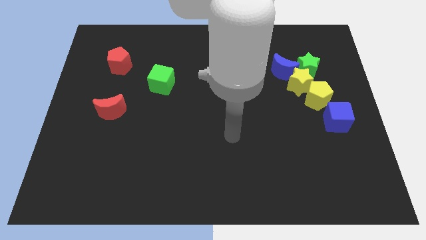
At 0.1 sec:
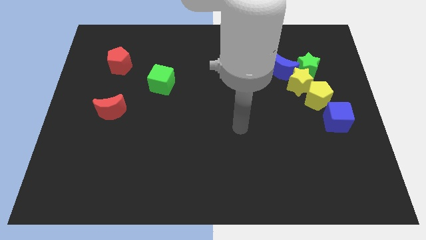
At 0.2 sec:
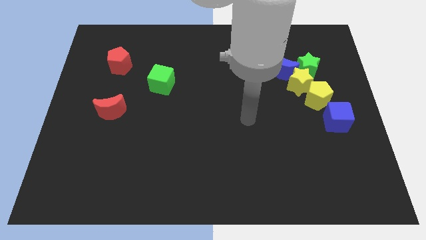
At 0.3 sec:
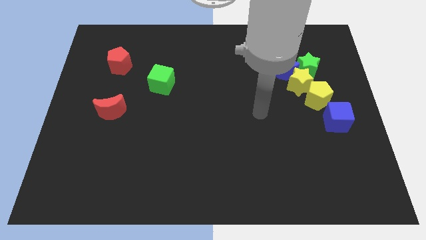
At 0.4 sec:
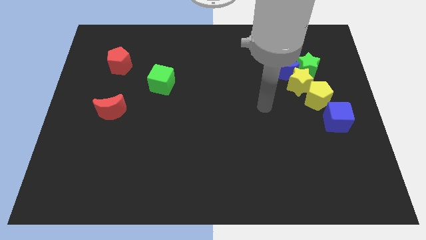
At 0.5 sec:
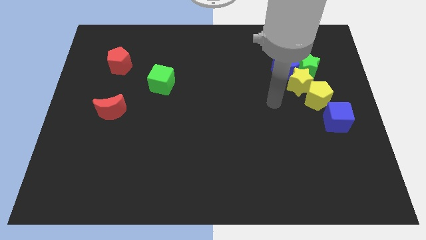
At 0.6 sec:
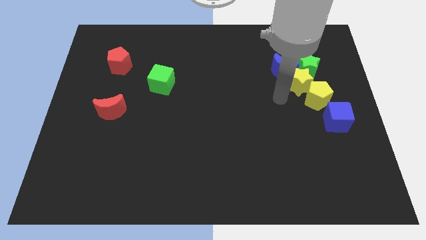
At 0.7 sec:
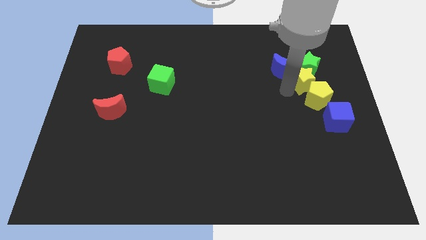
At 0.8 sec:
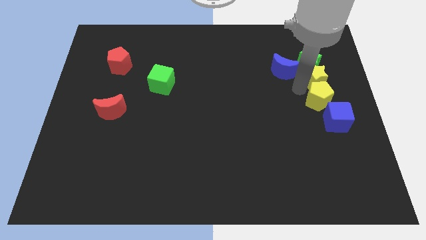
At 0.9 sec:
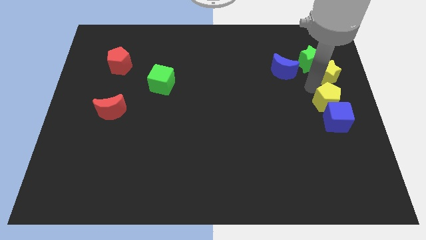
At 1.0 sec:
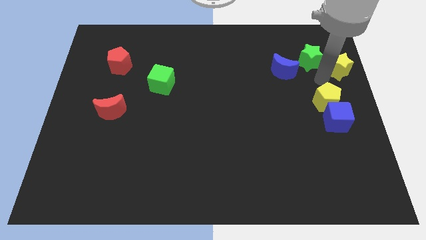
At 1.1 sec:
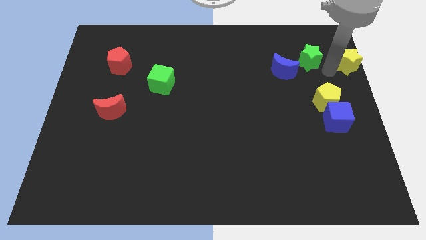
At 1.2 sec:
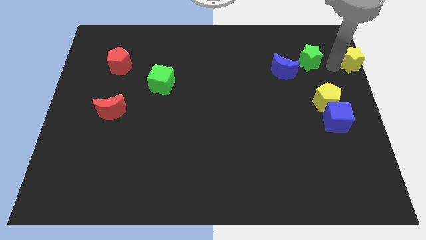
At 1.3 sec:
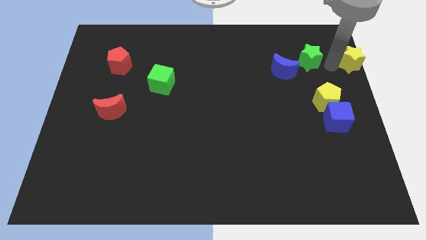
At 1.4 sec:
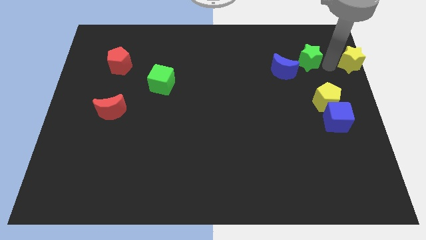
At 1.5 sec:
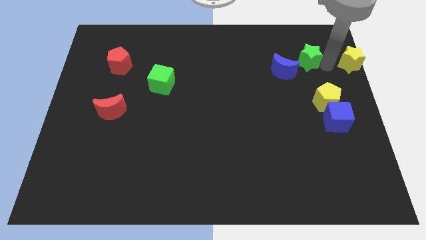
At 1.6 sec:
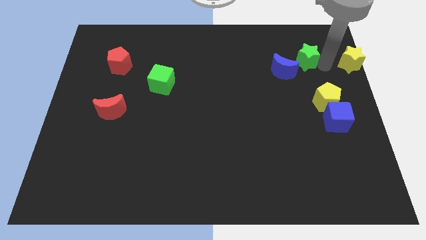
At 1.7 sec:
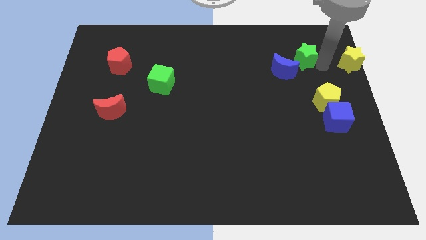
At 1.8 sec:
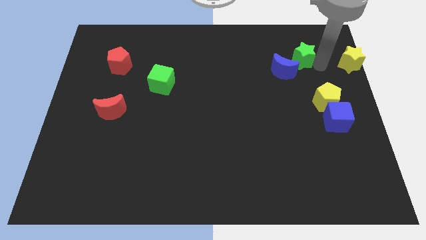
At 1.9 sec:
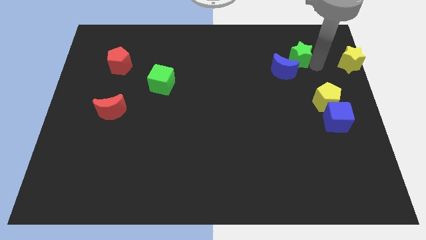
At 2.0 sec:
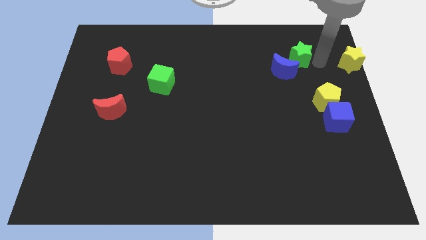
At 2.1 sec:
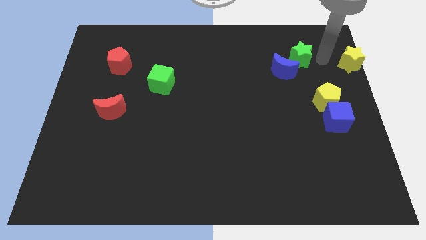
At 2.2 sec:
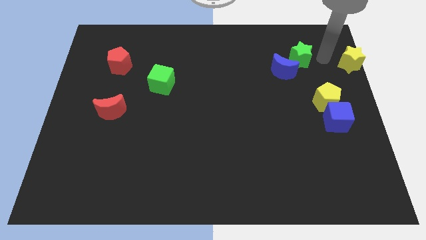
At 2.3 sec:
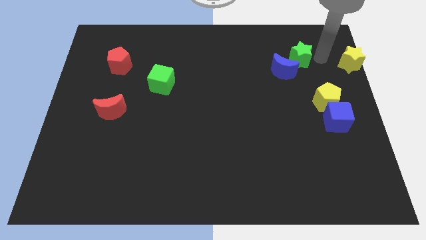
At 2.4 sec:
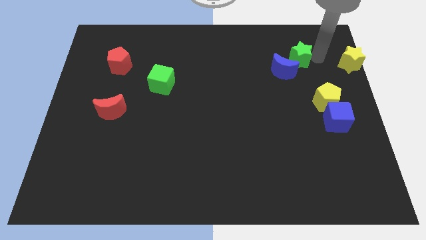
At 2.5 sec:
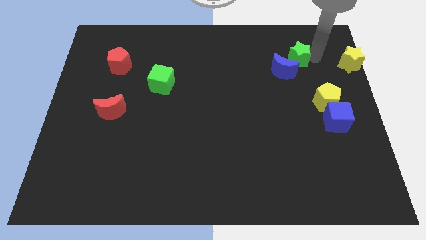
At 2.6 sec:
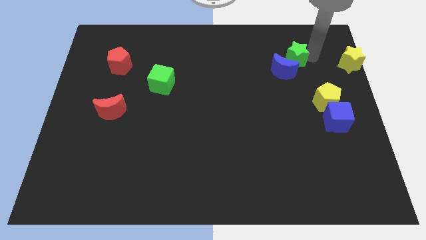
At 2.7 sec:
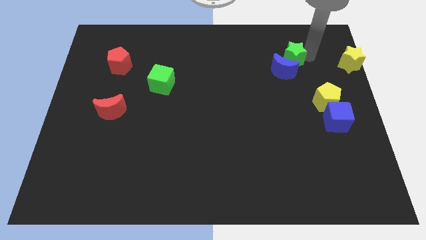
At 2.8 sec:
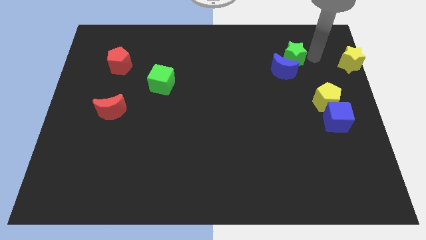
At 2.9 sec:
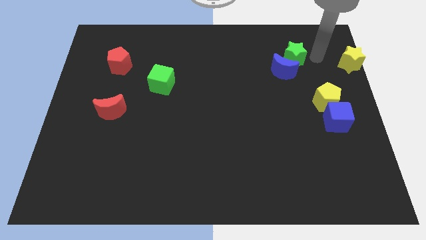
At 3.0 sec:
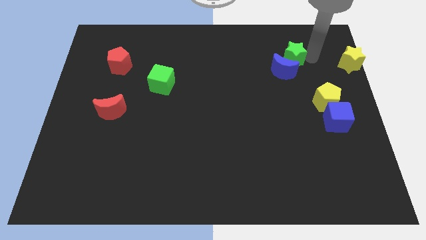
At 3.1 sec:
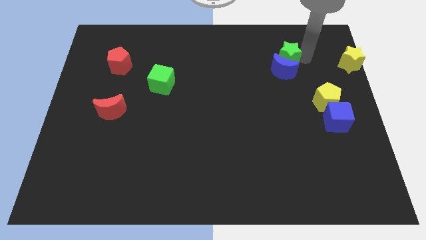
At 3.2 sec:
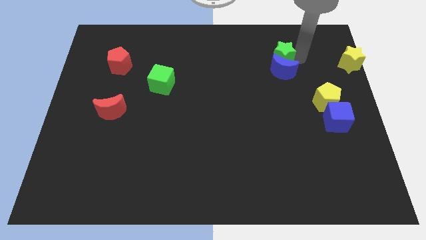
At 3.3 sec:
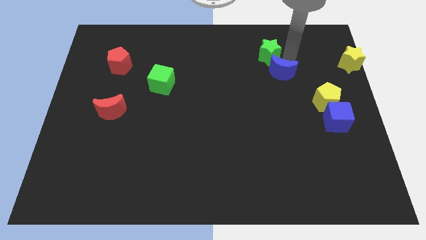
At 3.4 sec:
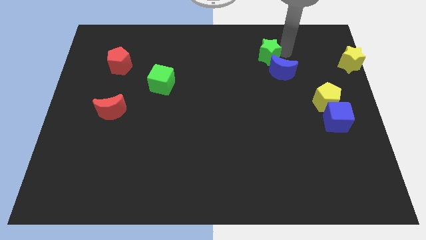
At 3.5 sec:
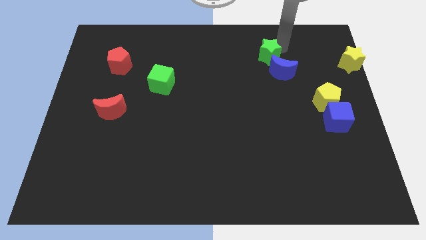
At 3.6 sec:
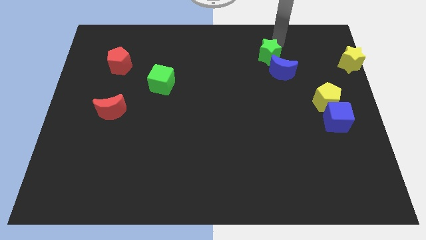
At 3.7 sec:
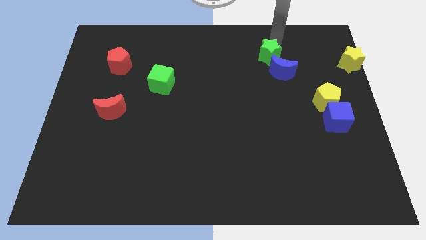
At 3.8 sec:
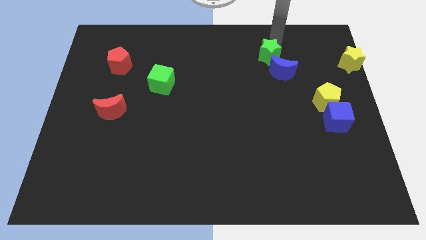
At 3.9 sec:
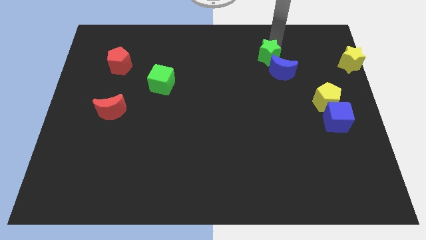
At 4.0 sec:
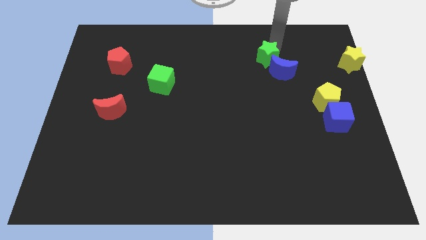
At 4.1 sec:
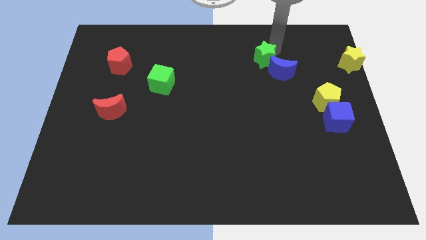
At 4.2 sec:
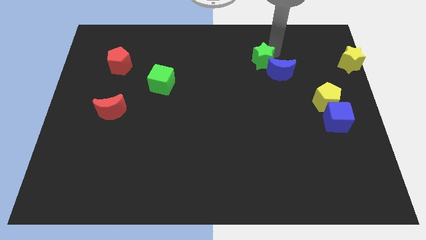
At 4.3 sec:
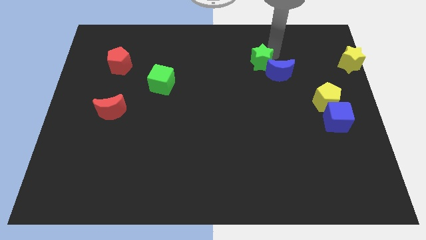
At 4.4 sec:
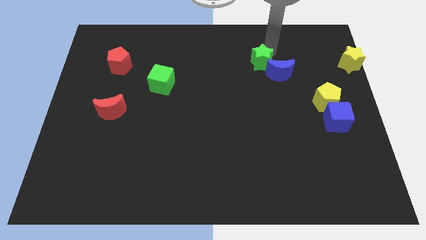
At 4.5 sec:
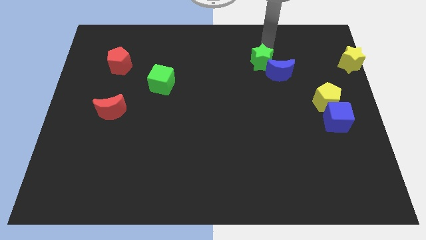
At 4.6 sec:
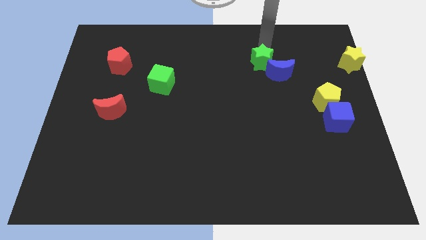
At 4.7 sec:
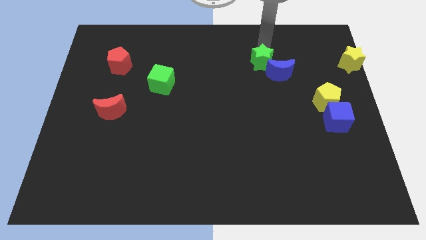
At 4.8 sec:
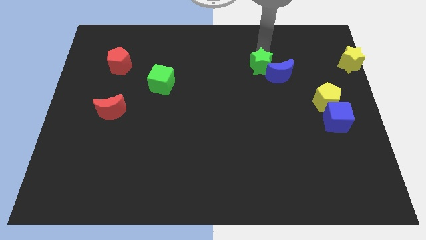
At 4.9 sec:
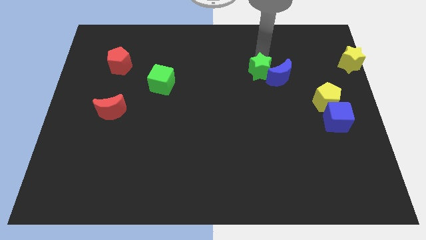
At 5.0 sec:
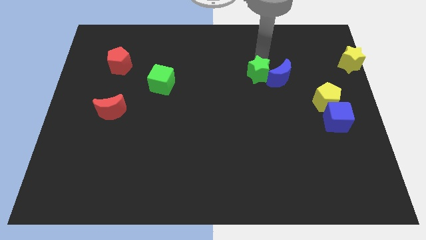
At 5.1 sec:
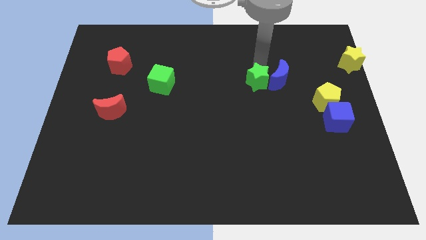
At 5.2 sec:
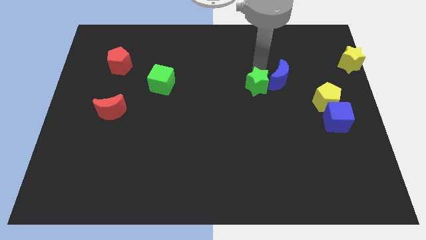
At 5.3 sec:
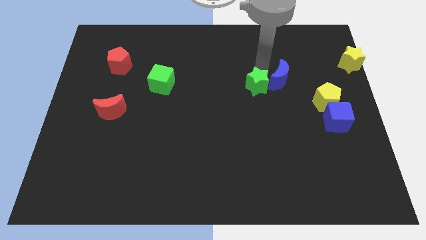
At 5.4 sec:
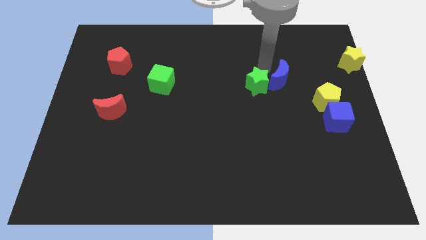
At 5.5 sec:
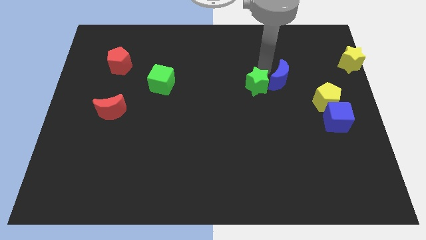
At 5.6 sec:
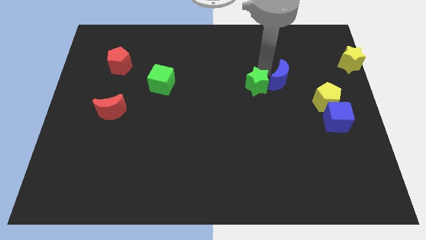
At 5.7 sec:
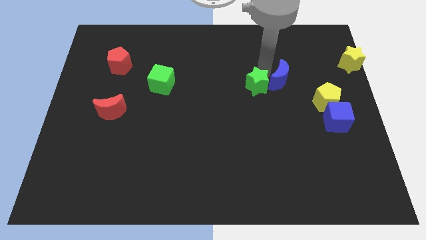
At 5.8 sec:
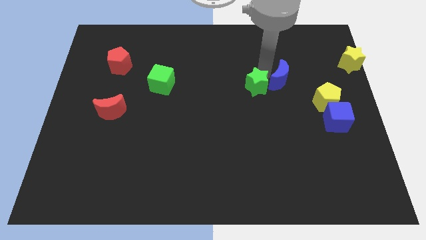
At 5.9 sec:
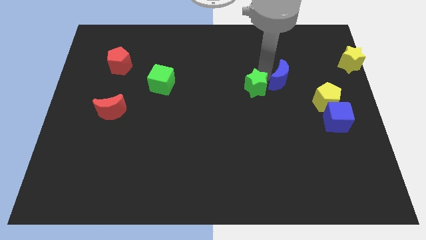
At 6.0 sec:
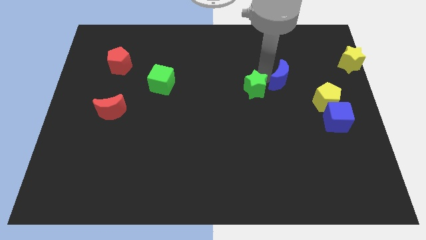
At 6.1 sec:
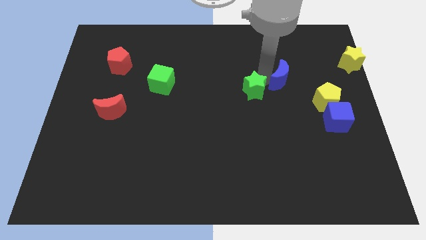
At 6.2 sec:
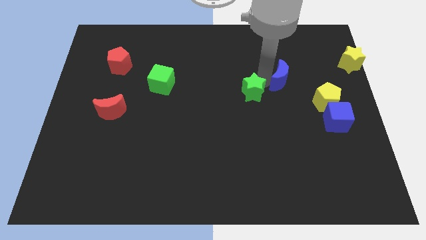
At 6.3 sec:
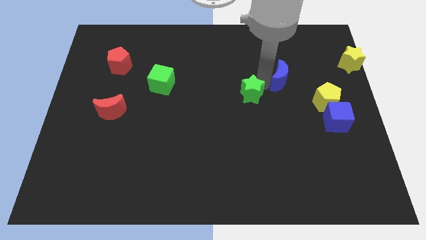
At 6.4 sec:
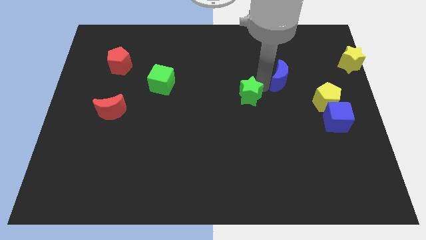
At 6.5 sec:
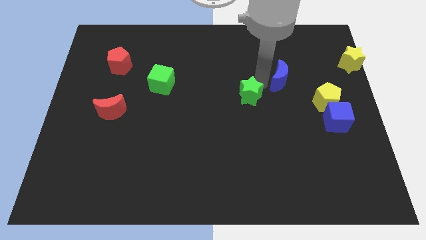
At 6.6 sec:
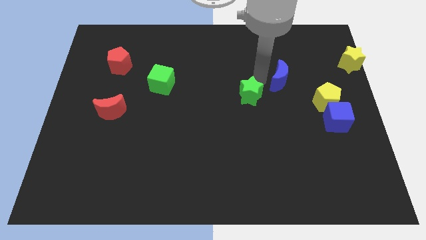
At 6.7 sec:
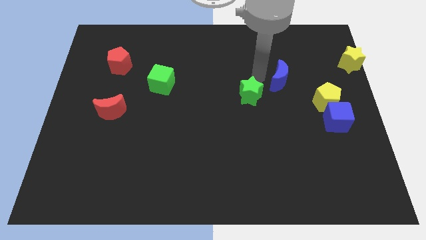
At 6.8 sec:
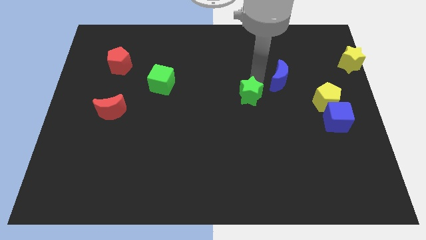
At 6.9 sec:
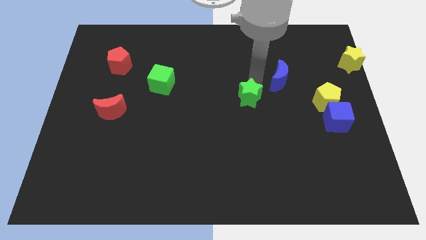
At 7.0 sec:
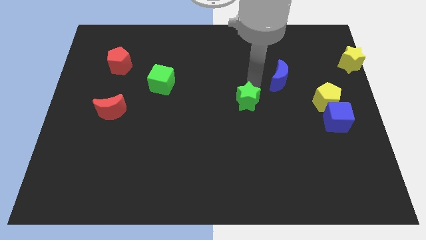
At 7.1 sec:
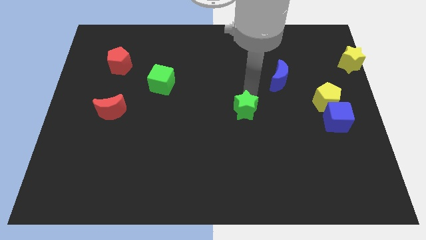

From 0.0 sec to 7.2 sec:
slide the green star downwards and to the left

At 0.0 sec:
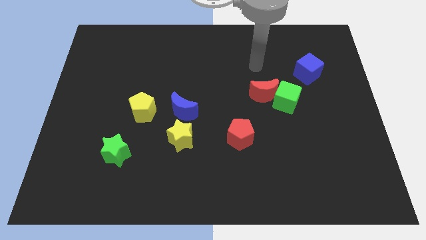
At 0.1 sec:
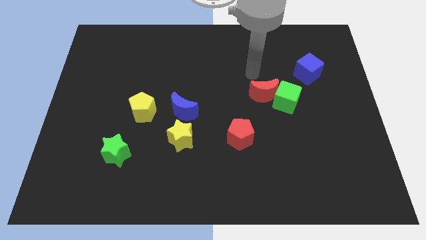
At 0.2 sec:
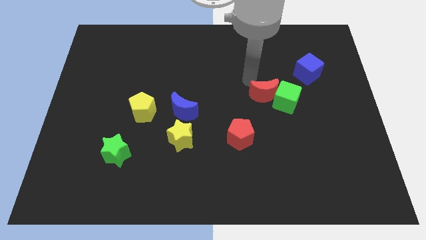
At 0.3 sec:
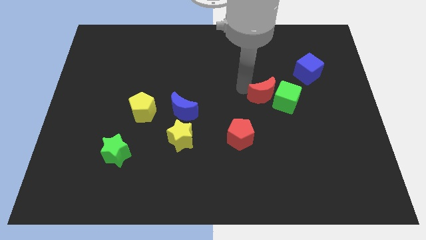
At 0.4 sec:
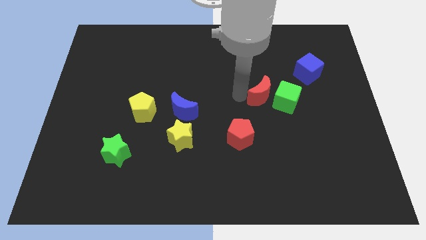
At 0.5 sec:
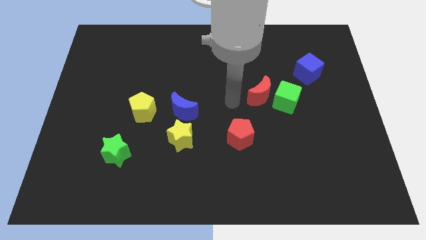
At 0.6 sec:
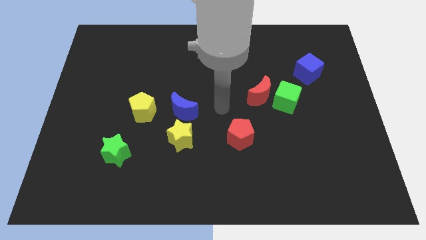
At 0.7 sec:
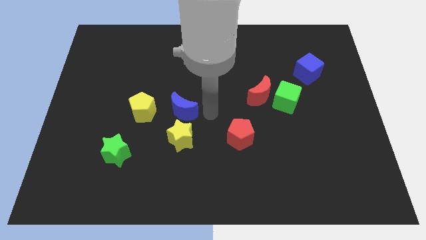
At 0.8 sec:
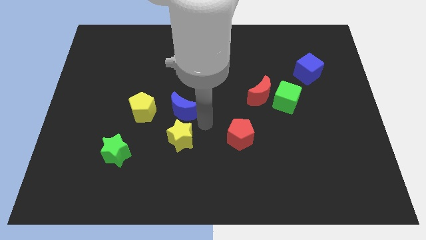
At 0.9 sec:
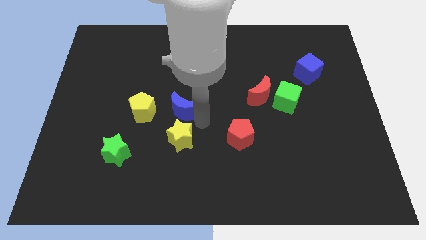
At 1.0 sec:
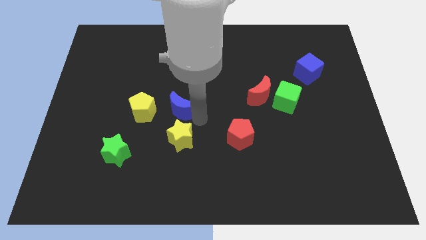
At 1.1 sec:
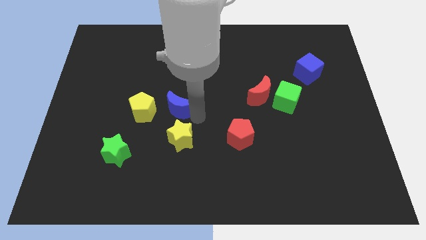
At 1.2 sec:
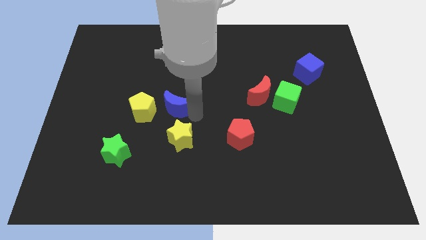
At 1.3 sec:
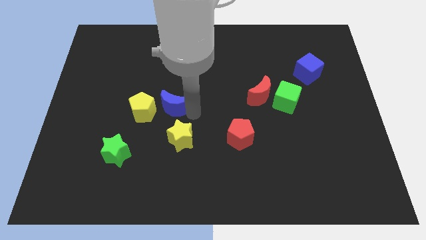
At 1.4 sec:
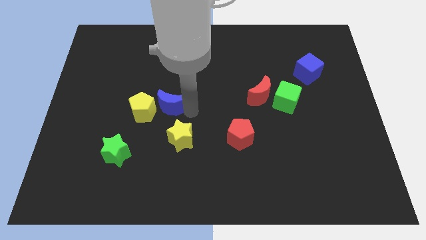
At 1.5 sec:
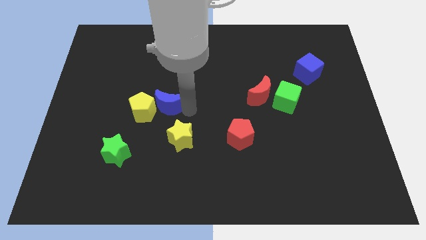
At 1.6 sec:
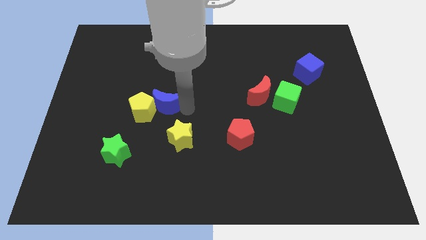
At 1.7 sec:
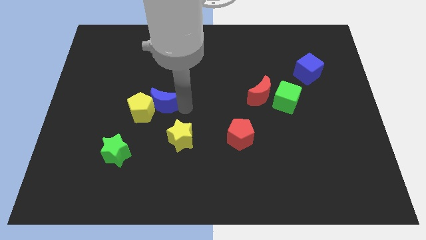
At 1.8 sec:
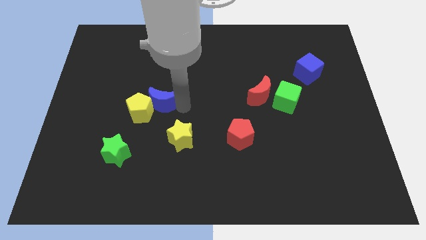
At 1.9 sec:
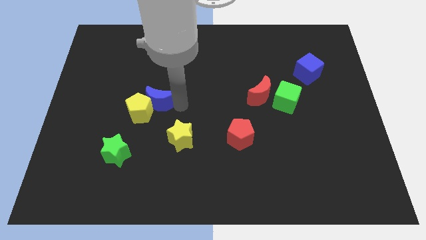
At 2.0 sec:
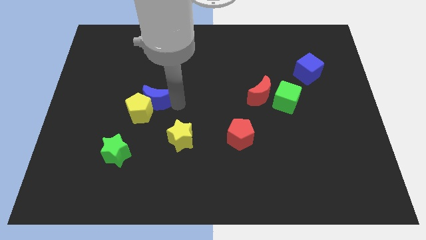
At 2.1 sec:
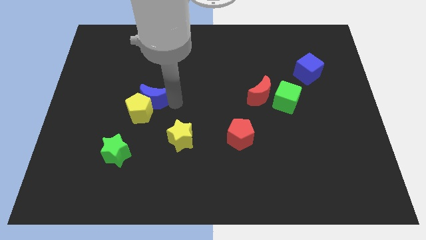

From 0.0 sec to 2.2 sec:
move the blue moon upwards and then left a little
